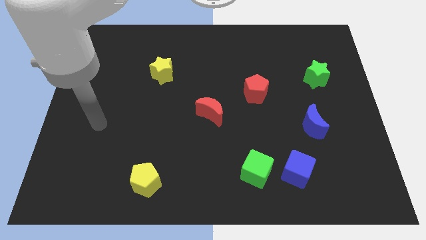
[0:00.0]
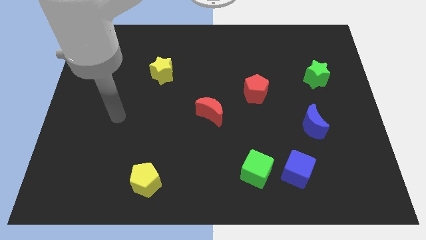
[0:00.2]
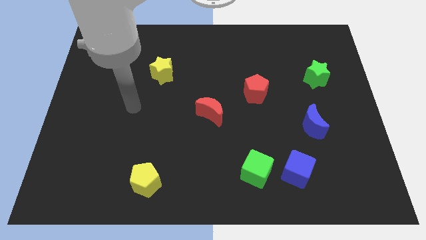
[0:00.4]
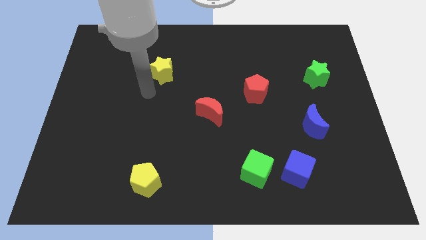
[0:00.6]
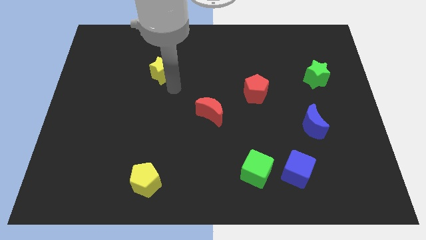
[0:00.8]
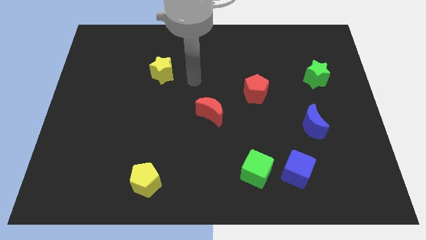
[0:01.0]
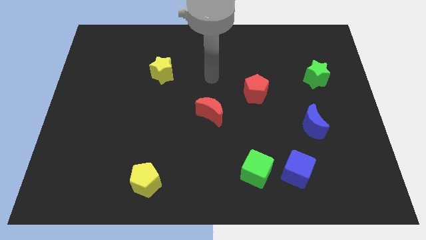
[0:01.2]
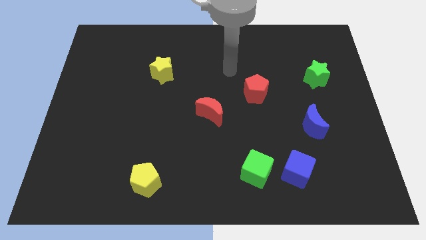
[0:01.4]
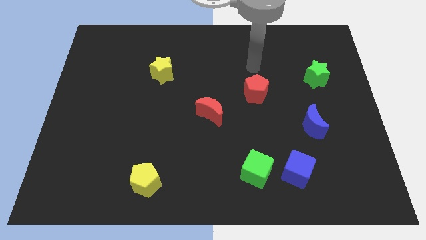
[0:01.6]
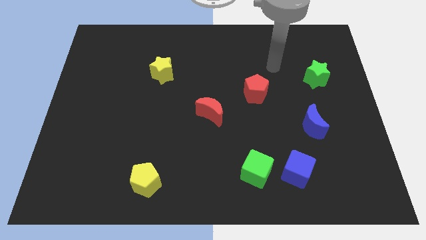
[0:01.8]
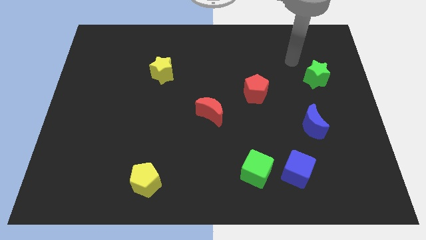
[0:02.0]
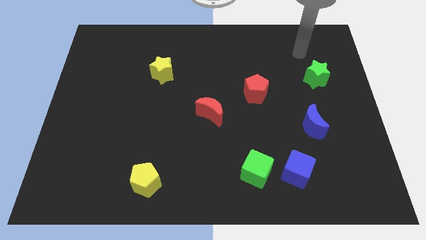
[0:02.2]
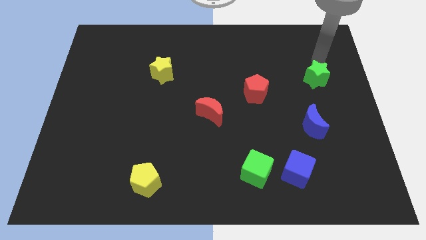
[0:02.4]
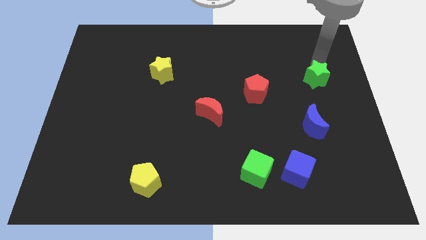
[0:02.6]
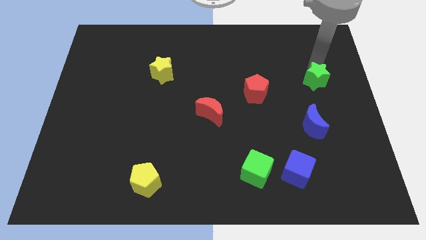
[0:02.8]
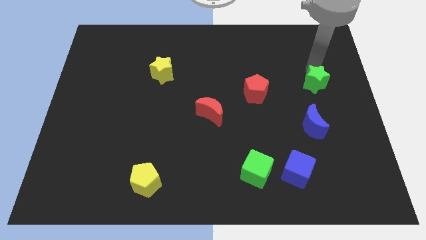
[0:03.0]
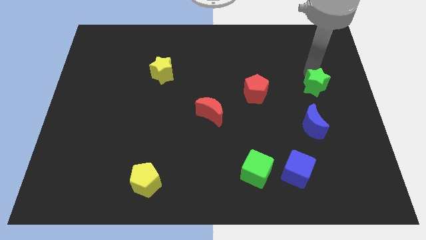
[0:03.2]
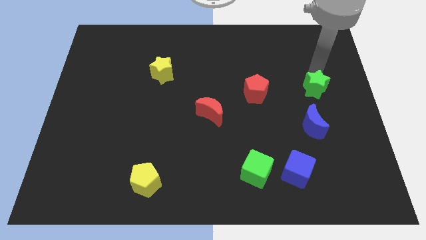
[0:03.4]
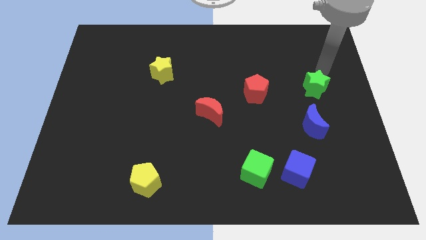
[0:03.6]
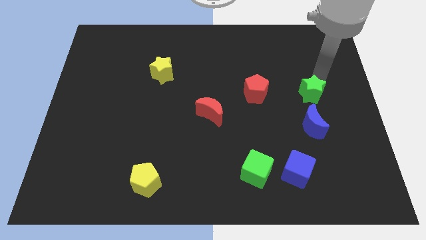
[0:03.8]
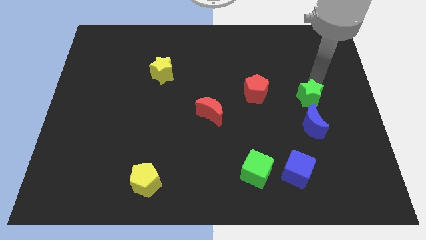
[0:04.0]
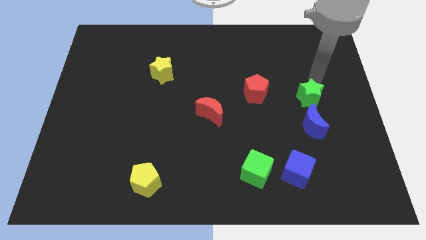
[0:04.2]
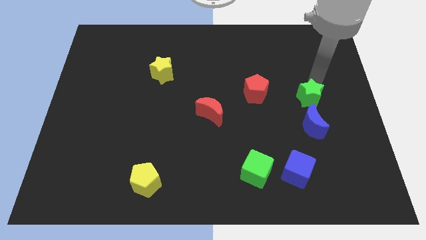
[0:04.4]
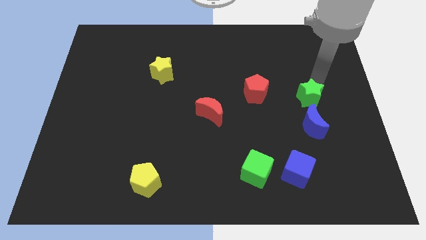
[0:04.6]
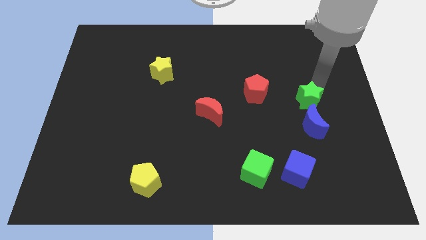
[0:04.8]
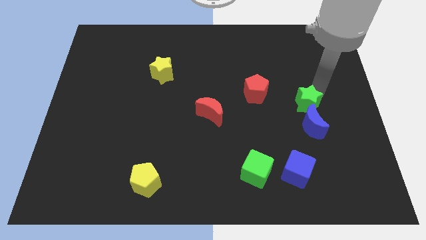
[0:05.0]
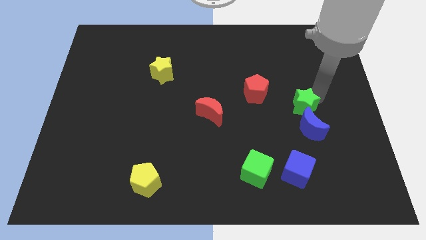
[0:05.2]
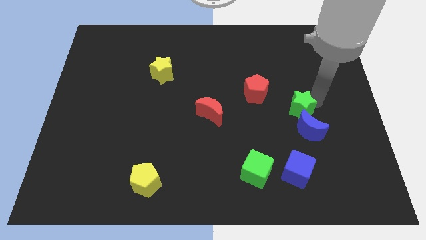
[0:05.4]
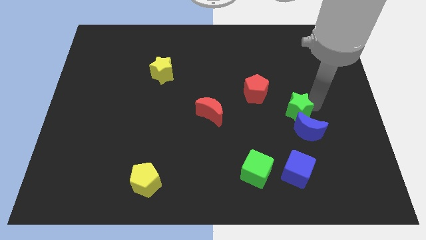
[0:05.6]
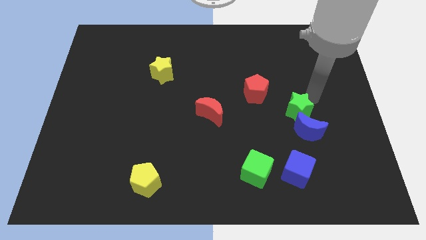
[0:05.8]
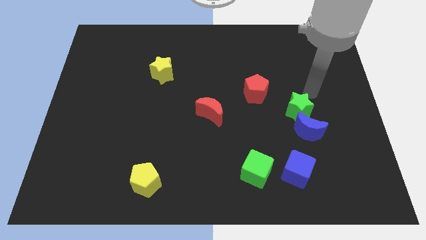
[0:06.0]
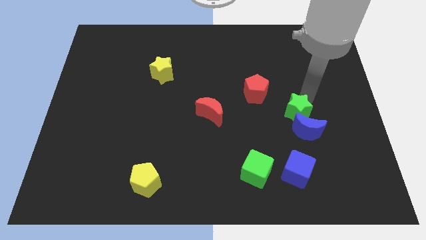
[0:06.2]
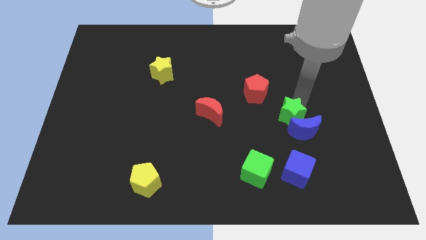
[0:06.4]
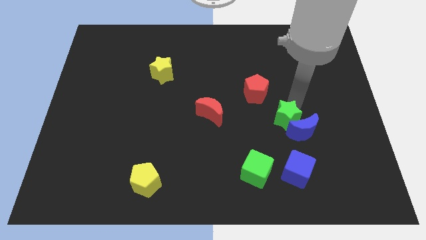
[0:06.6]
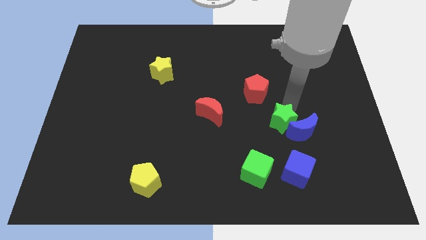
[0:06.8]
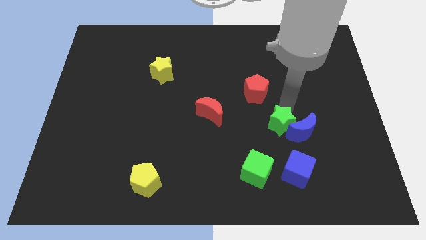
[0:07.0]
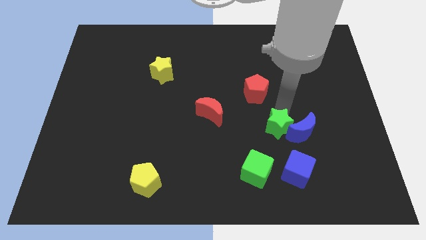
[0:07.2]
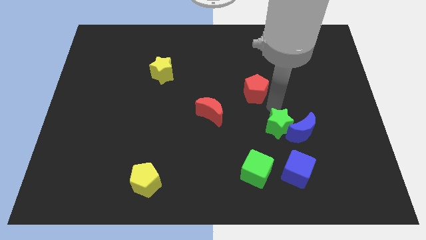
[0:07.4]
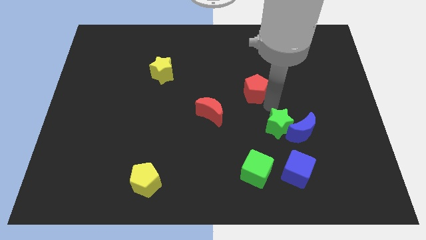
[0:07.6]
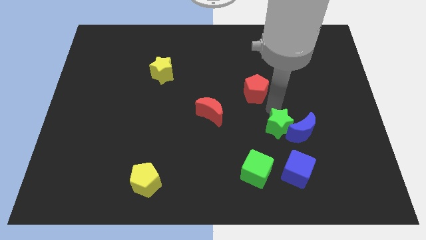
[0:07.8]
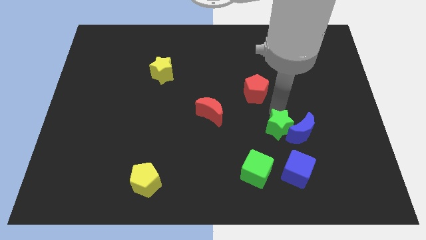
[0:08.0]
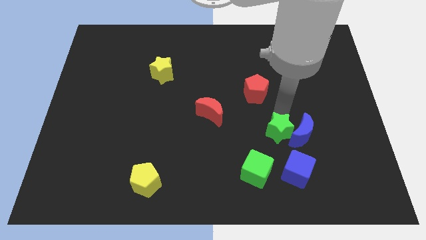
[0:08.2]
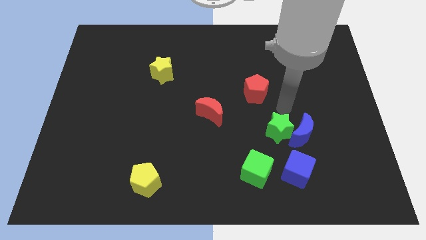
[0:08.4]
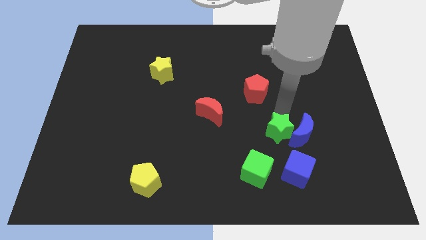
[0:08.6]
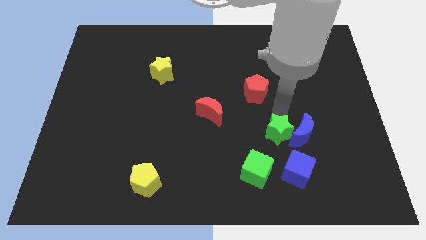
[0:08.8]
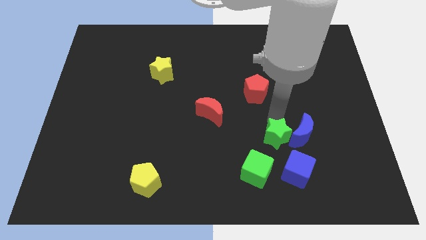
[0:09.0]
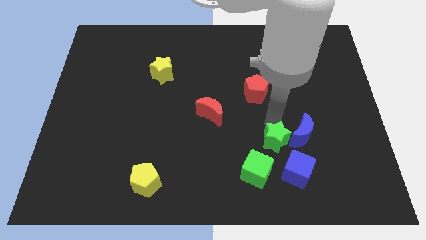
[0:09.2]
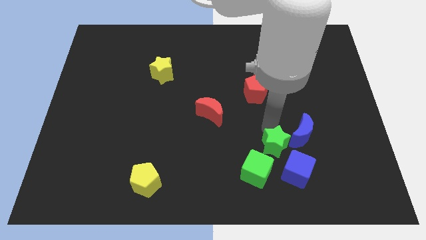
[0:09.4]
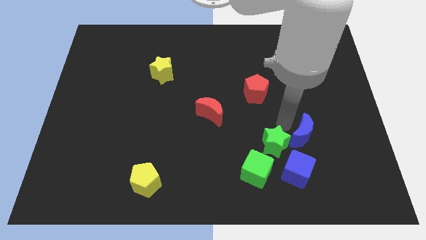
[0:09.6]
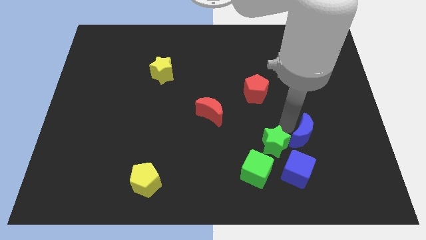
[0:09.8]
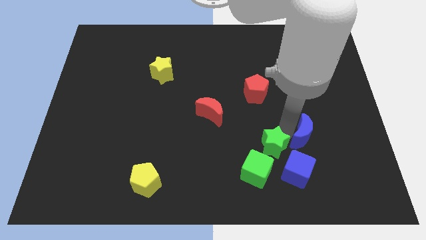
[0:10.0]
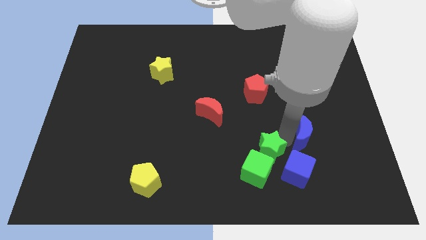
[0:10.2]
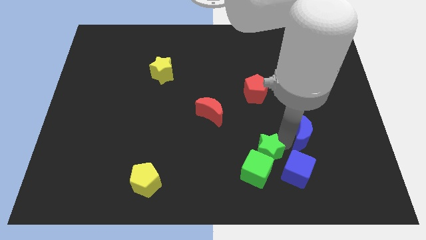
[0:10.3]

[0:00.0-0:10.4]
put the green star close to the green cube

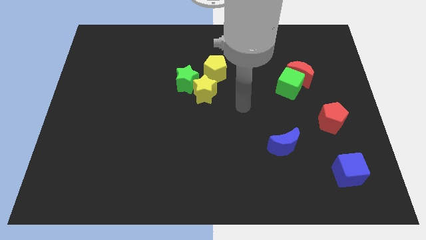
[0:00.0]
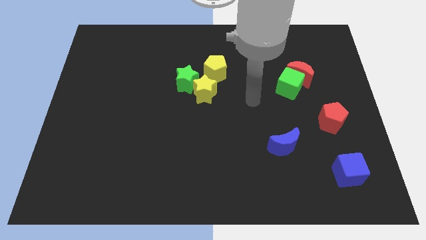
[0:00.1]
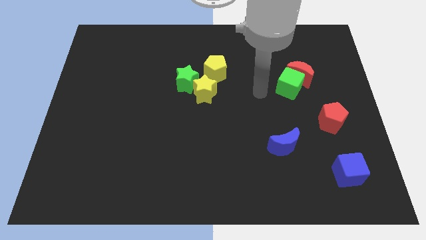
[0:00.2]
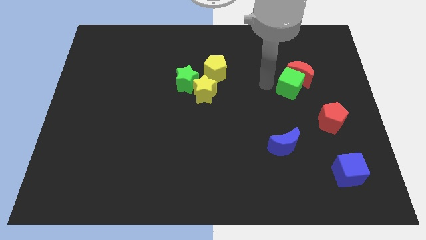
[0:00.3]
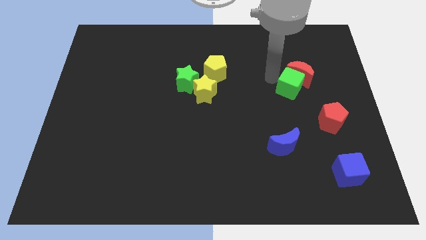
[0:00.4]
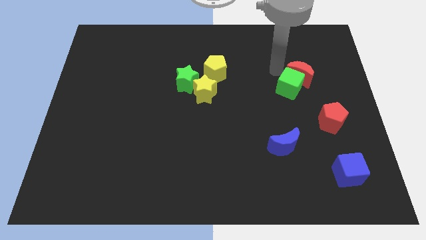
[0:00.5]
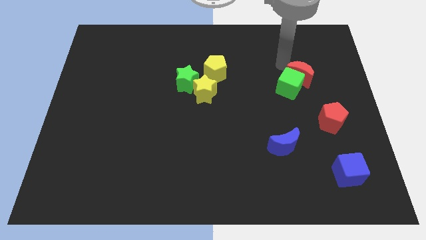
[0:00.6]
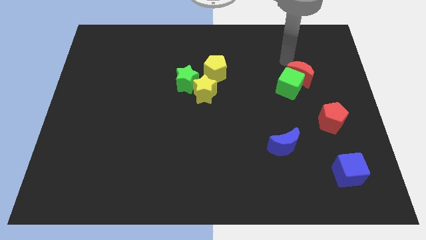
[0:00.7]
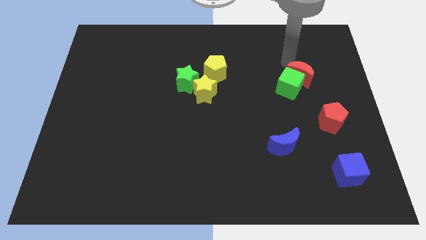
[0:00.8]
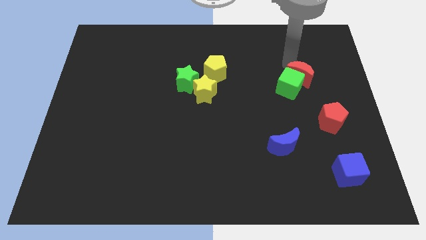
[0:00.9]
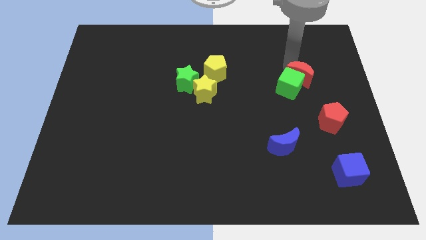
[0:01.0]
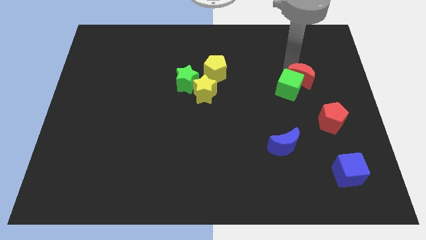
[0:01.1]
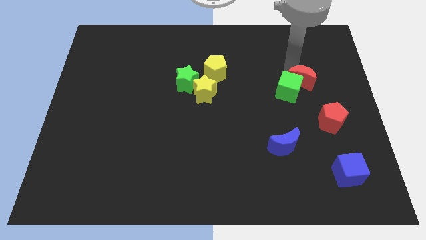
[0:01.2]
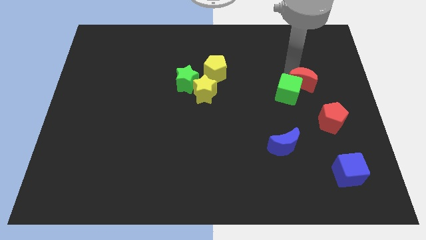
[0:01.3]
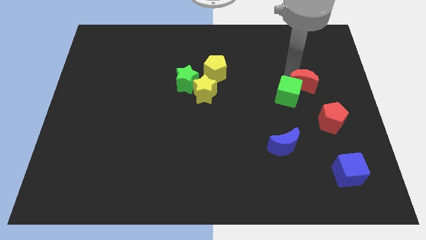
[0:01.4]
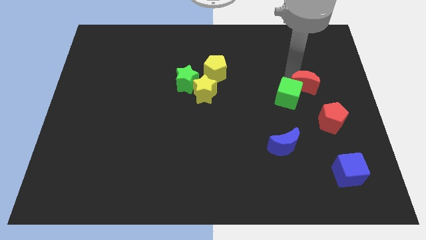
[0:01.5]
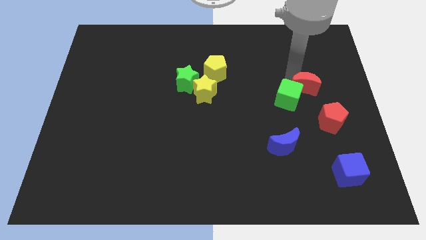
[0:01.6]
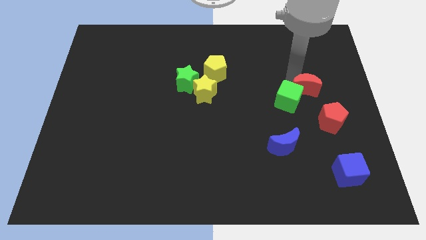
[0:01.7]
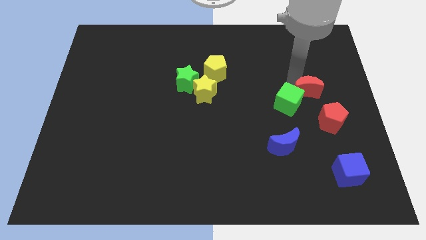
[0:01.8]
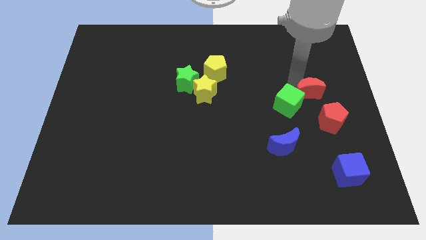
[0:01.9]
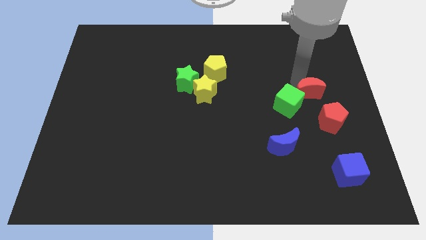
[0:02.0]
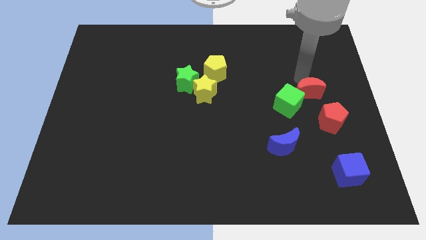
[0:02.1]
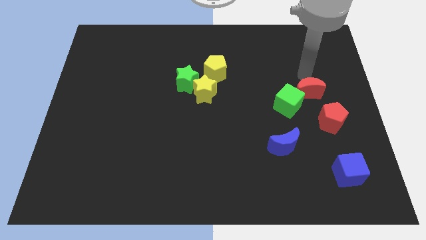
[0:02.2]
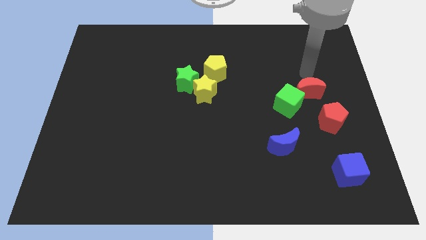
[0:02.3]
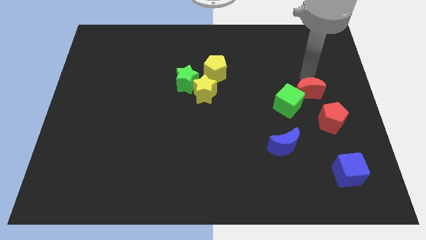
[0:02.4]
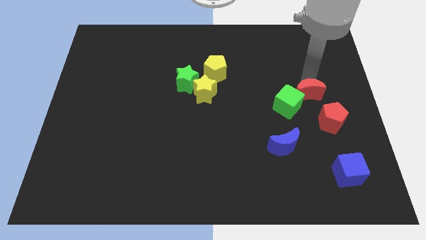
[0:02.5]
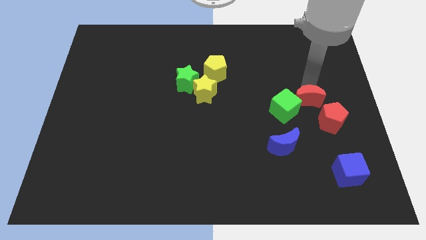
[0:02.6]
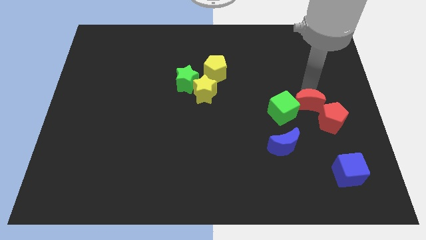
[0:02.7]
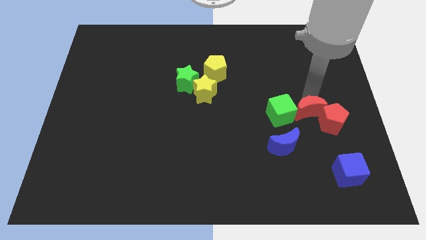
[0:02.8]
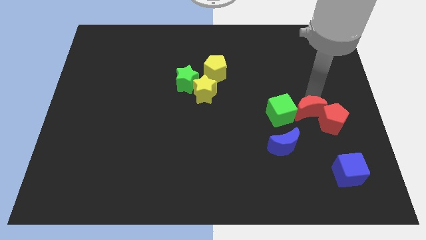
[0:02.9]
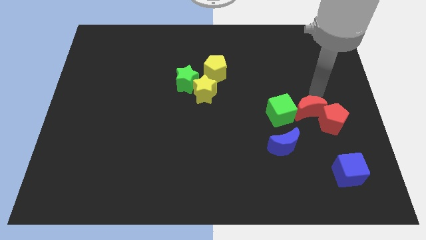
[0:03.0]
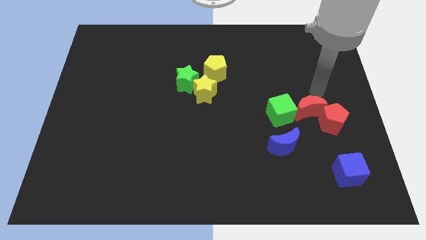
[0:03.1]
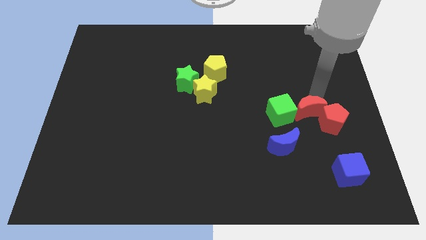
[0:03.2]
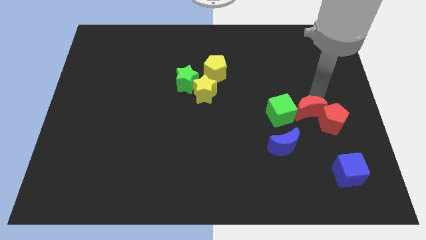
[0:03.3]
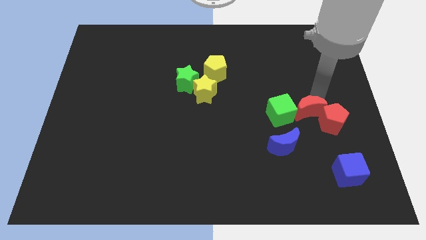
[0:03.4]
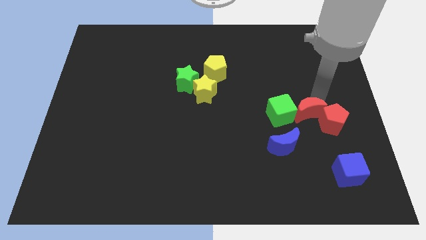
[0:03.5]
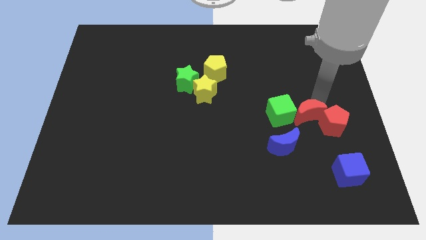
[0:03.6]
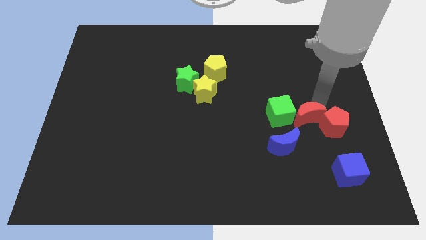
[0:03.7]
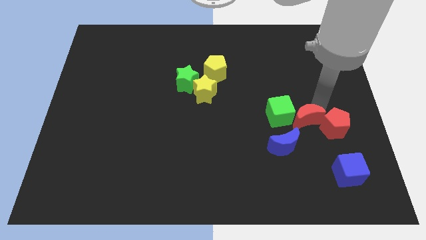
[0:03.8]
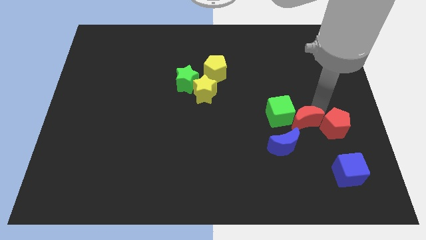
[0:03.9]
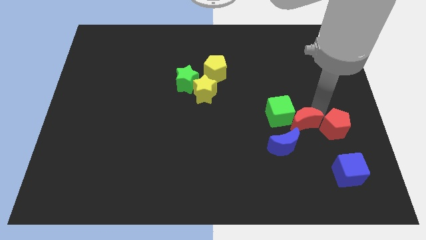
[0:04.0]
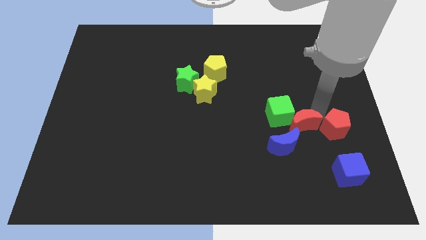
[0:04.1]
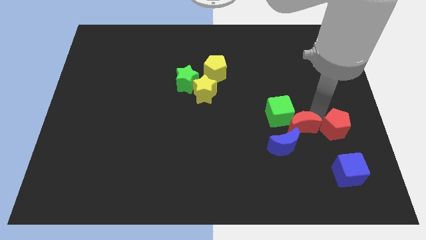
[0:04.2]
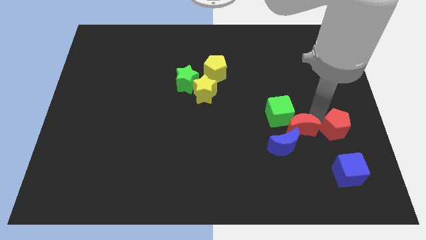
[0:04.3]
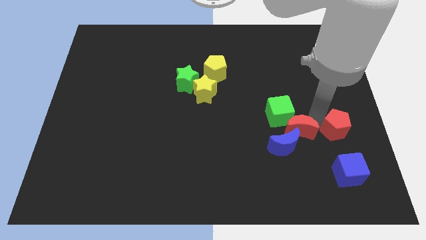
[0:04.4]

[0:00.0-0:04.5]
put the red moon close to the blue moon
